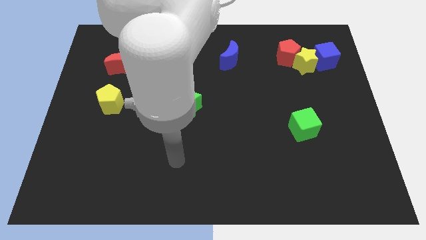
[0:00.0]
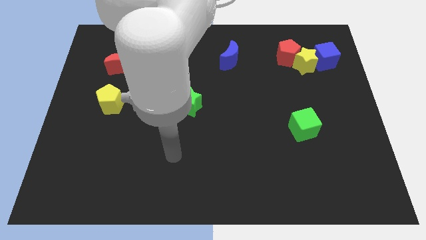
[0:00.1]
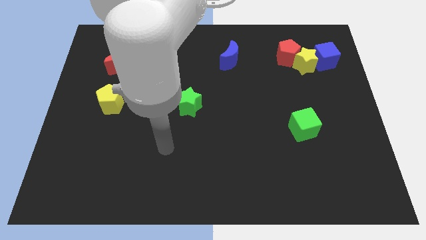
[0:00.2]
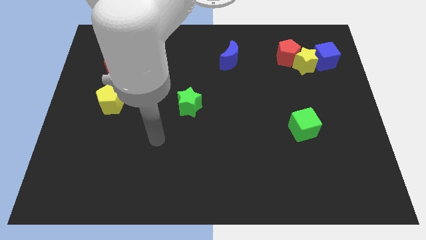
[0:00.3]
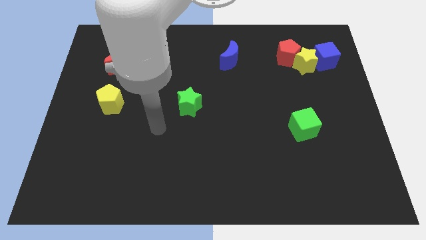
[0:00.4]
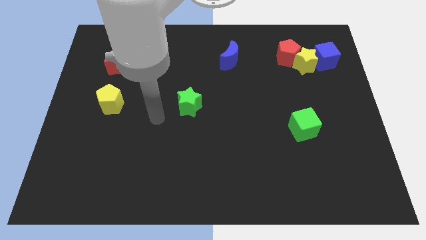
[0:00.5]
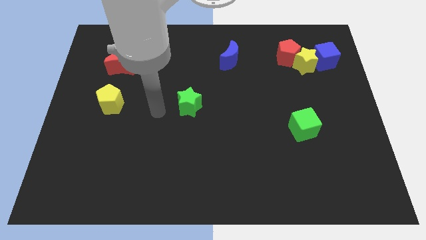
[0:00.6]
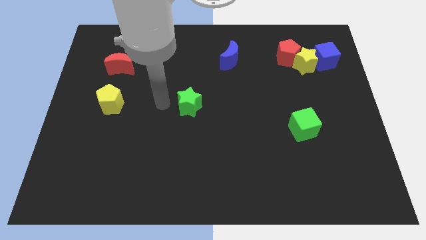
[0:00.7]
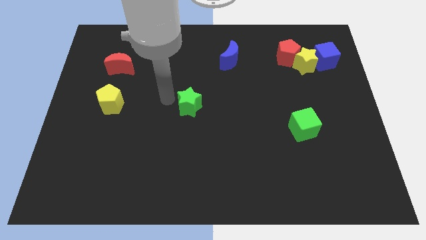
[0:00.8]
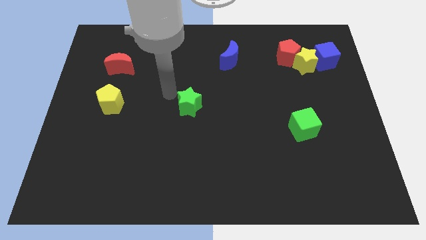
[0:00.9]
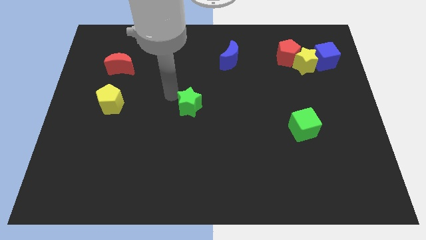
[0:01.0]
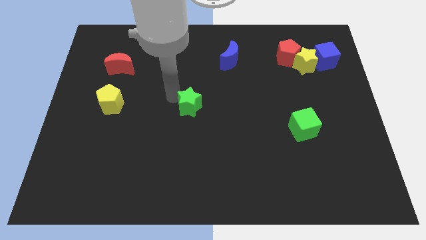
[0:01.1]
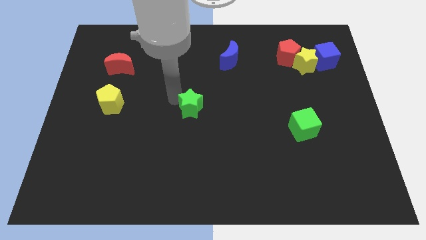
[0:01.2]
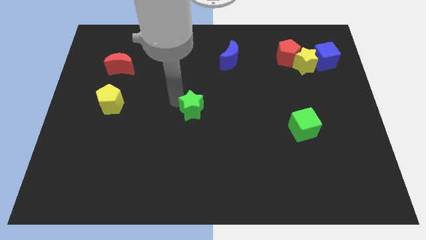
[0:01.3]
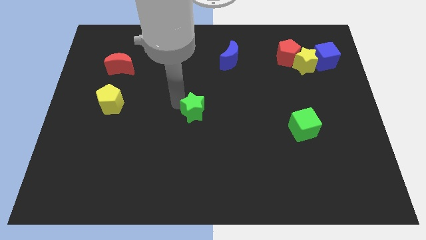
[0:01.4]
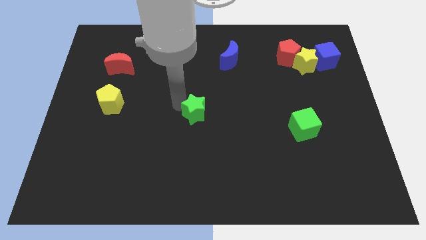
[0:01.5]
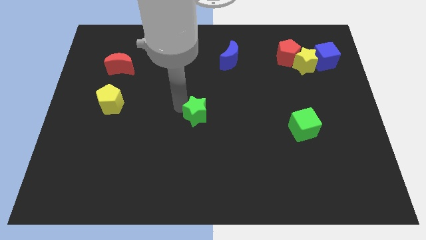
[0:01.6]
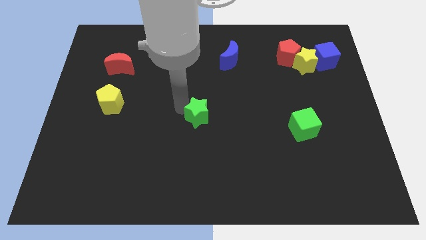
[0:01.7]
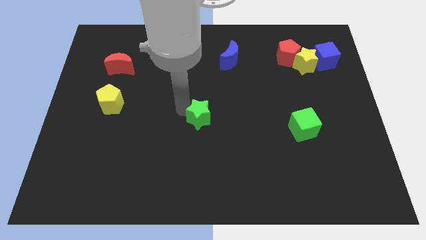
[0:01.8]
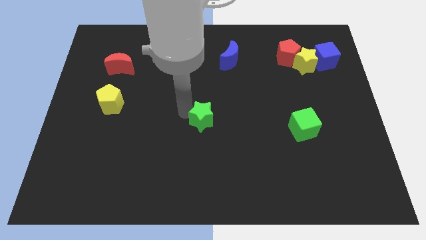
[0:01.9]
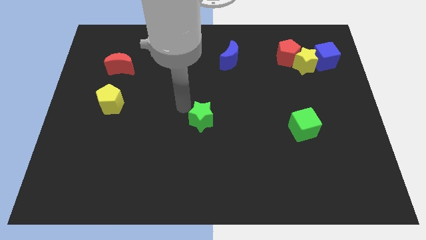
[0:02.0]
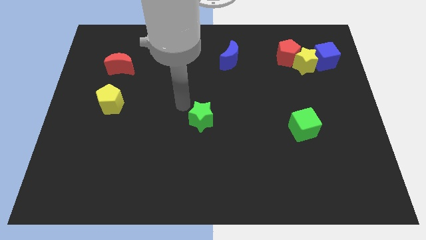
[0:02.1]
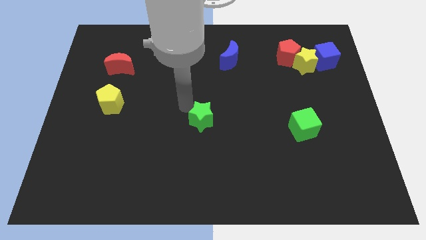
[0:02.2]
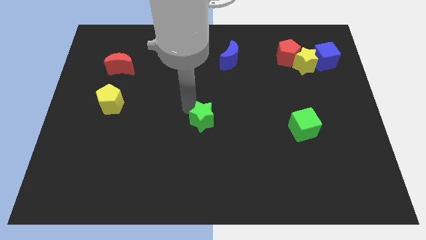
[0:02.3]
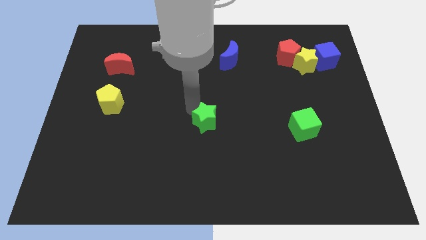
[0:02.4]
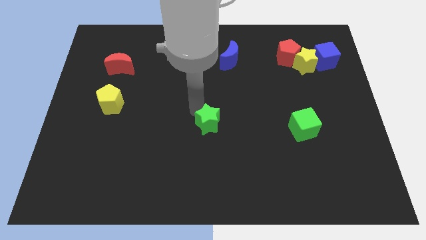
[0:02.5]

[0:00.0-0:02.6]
push the green star somewhat down and right

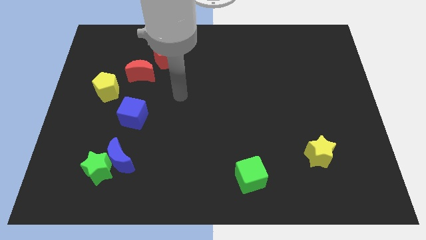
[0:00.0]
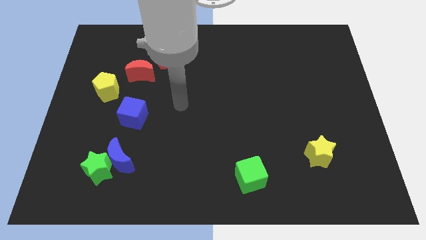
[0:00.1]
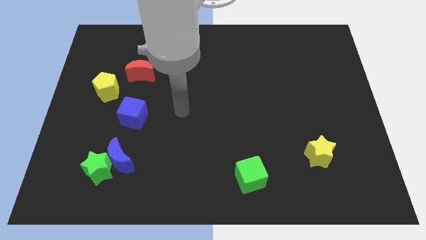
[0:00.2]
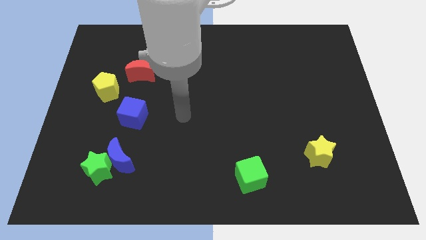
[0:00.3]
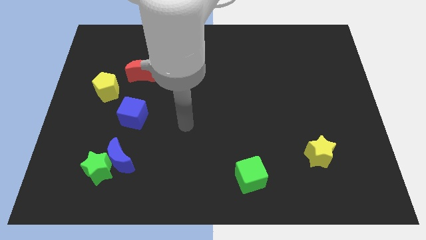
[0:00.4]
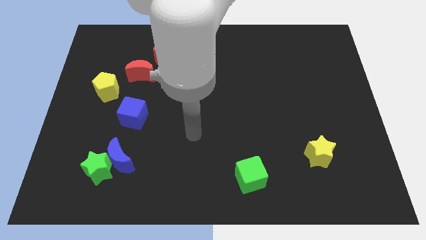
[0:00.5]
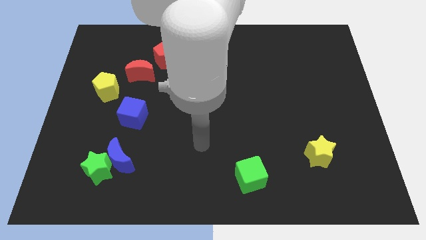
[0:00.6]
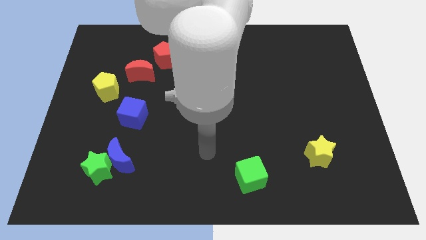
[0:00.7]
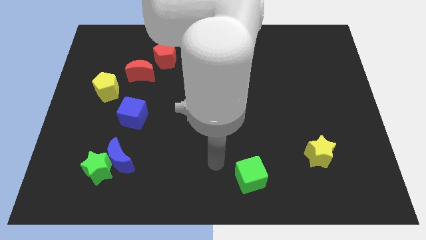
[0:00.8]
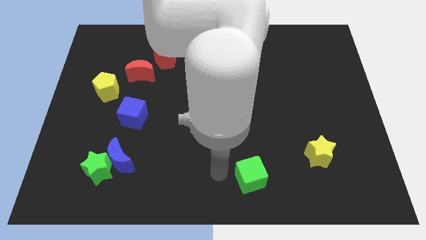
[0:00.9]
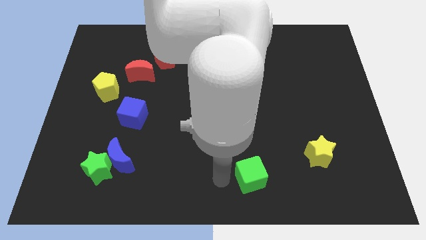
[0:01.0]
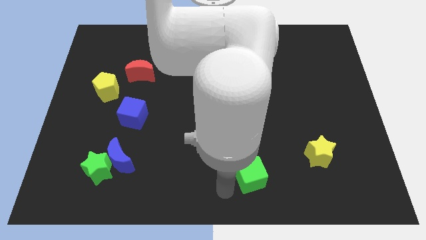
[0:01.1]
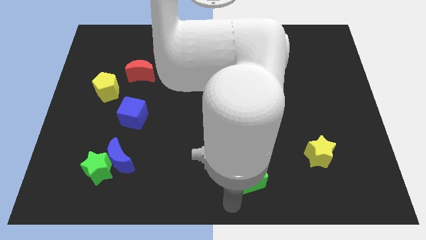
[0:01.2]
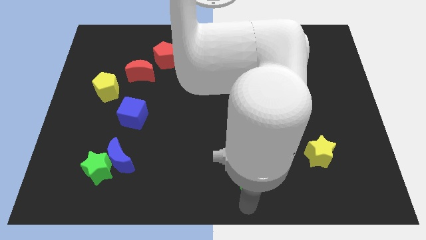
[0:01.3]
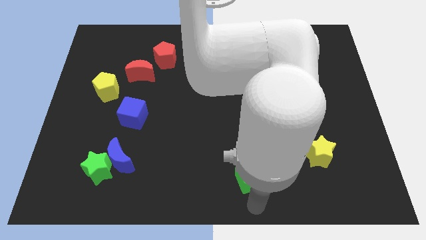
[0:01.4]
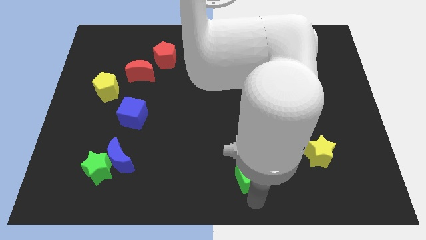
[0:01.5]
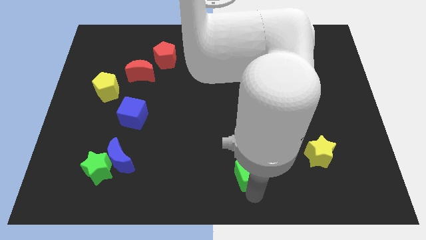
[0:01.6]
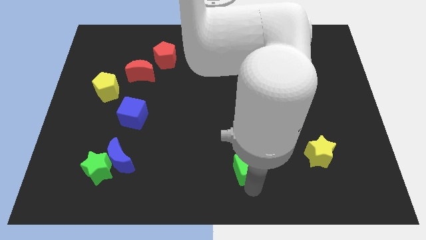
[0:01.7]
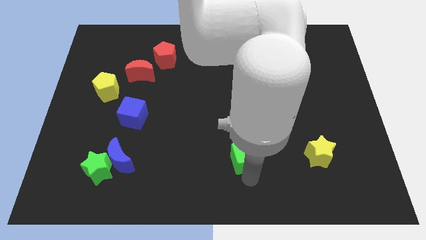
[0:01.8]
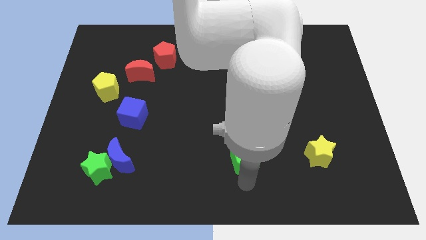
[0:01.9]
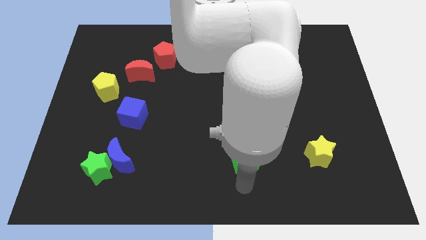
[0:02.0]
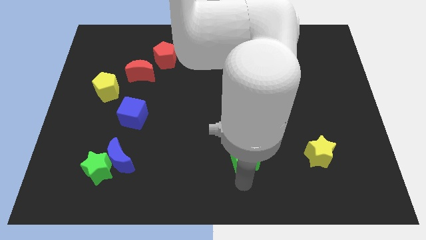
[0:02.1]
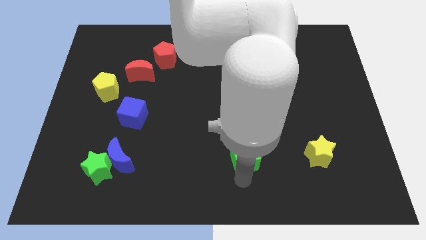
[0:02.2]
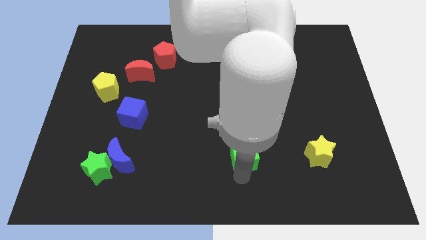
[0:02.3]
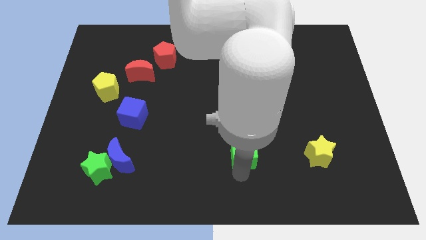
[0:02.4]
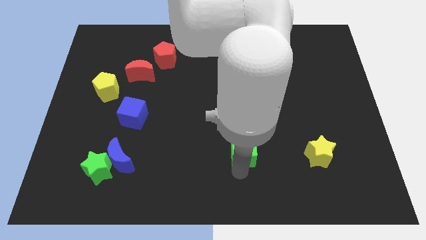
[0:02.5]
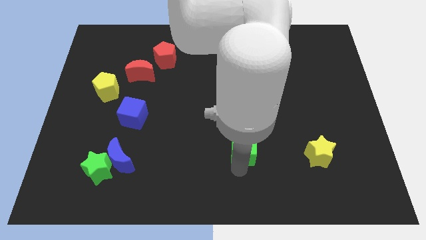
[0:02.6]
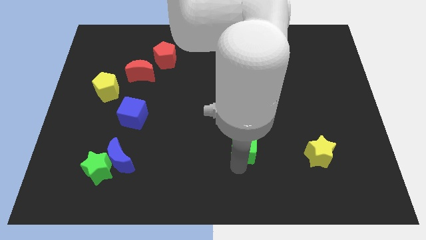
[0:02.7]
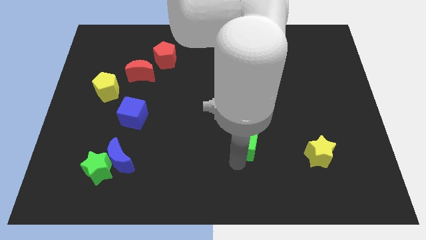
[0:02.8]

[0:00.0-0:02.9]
push the green cube a bit up

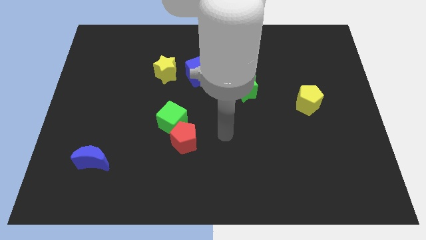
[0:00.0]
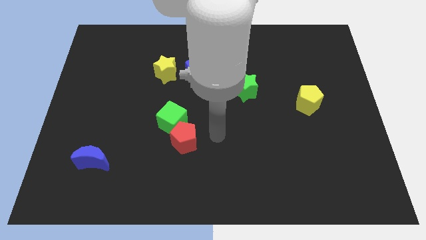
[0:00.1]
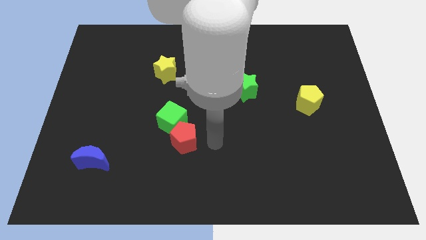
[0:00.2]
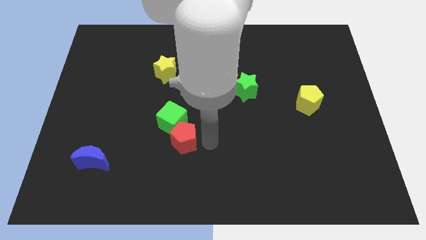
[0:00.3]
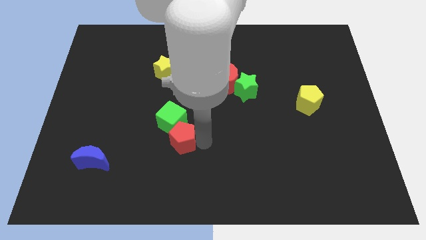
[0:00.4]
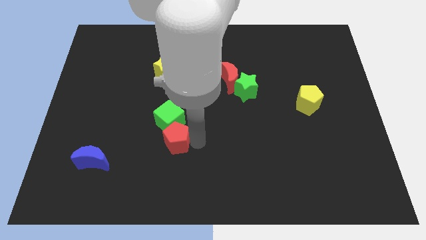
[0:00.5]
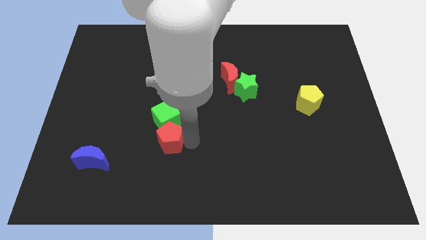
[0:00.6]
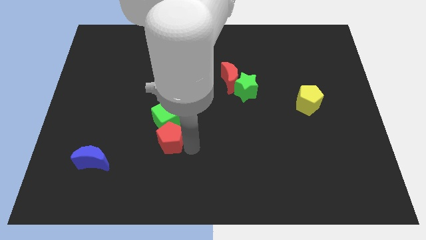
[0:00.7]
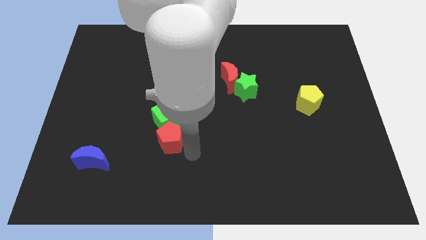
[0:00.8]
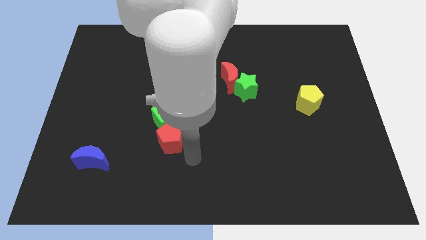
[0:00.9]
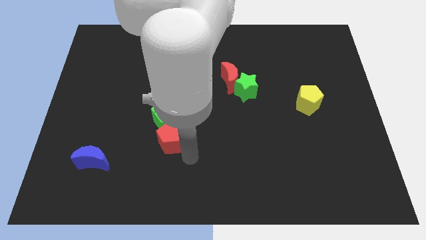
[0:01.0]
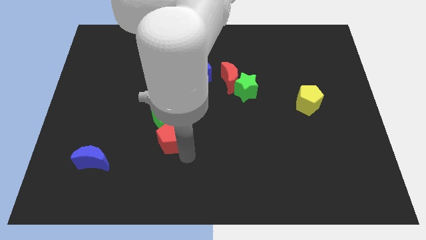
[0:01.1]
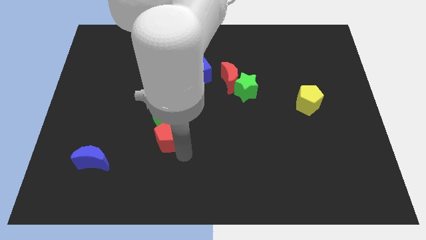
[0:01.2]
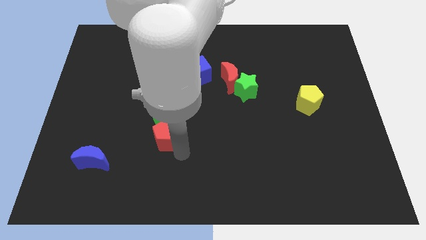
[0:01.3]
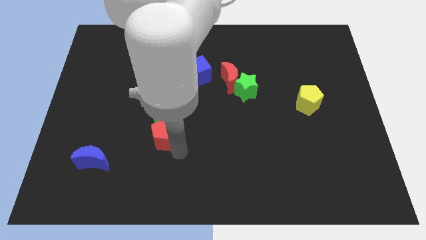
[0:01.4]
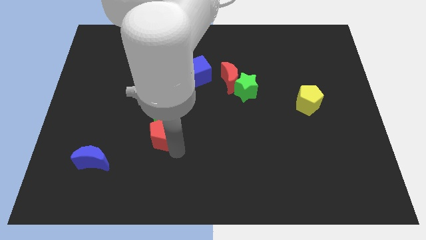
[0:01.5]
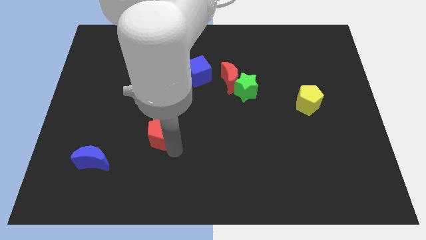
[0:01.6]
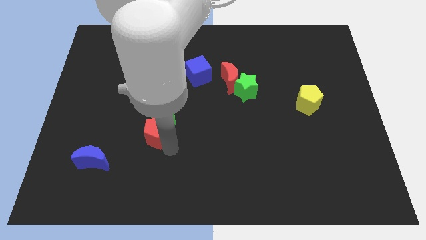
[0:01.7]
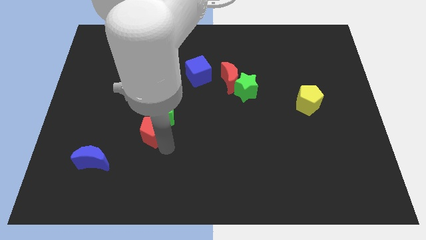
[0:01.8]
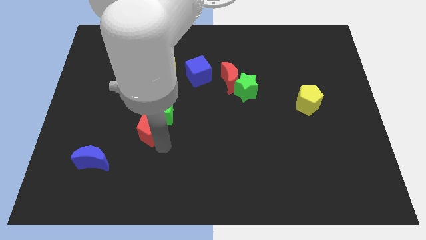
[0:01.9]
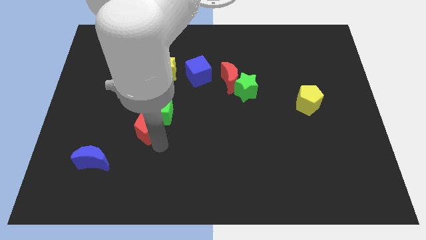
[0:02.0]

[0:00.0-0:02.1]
slide the red pentagon a little bit up and to the left diagonally

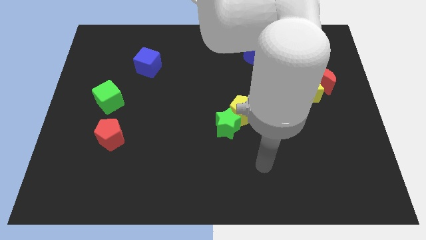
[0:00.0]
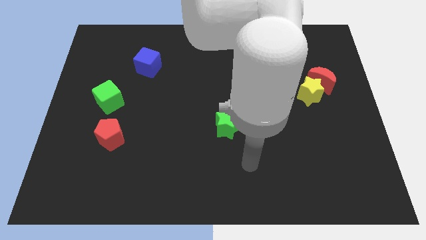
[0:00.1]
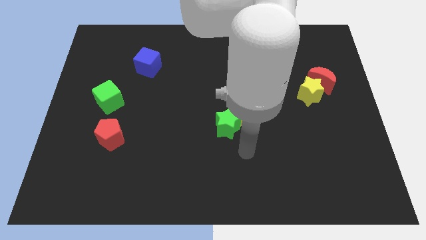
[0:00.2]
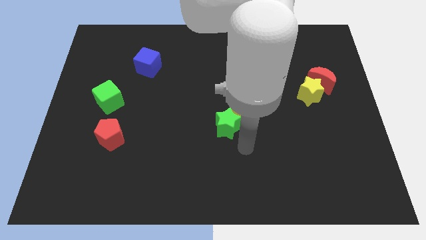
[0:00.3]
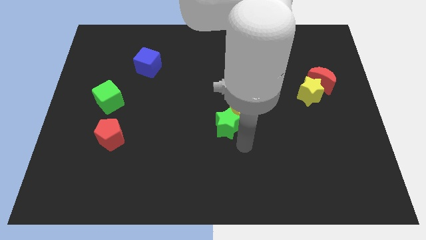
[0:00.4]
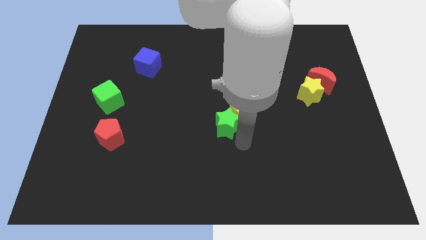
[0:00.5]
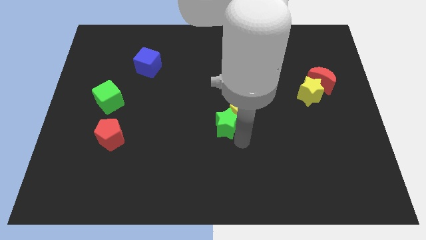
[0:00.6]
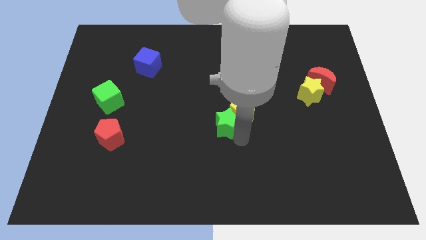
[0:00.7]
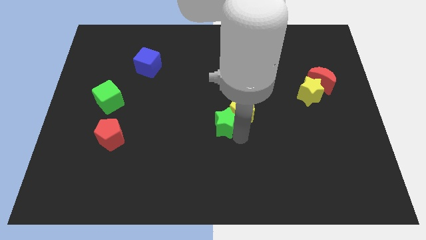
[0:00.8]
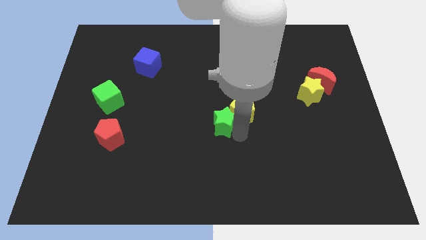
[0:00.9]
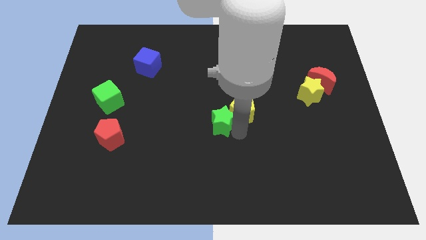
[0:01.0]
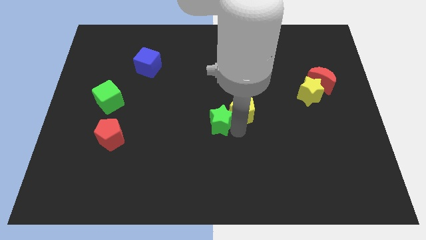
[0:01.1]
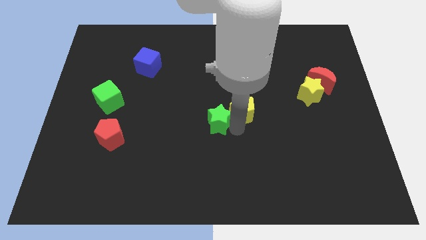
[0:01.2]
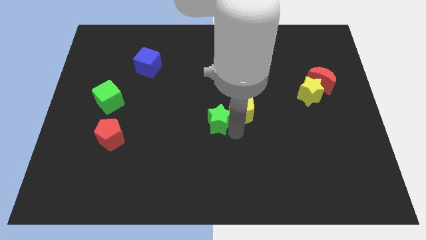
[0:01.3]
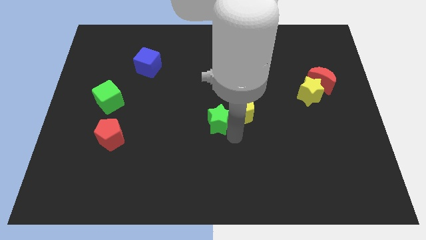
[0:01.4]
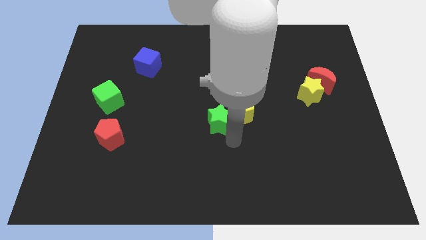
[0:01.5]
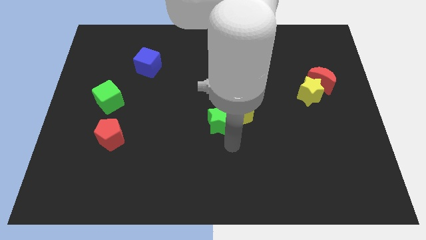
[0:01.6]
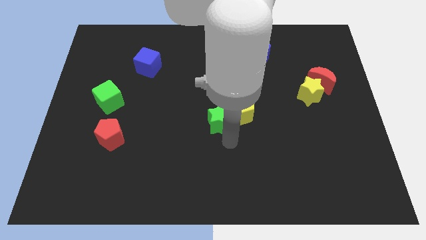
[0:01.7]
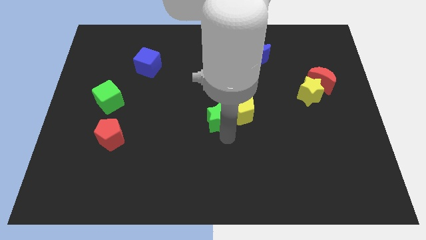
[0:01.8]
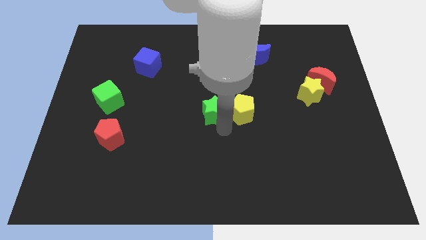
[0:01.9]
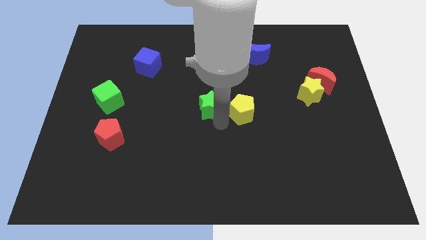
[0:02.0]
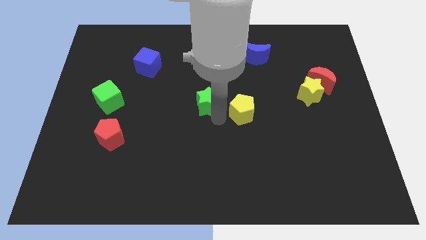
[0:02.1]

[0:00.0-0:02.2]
move the green star a bit upwards and then to the left
